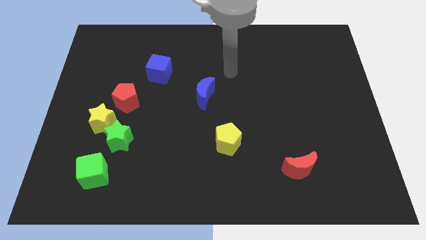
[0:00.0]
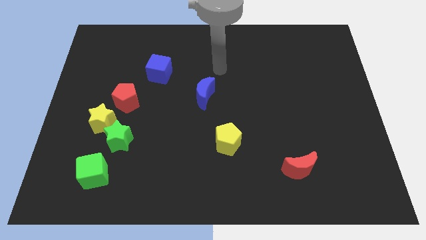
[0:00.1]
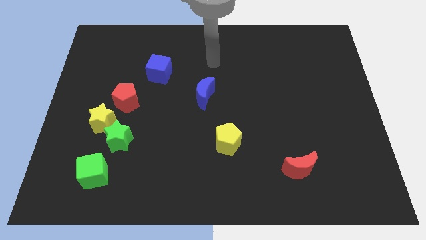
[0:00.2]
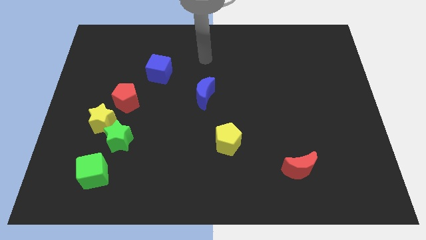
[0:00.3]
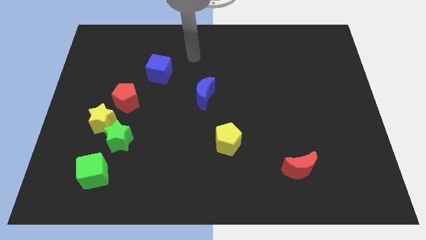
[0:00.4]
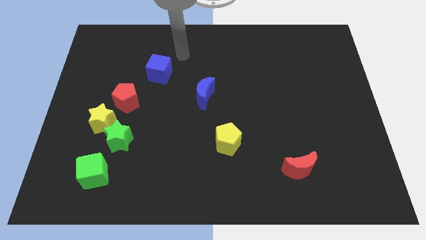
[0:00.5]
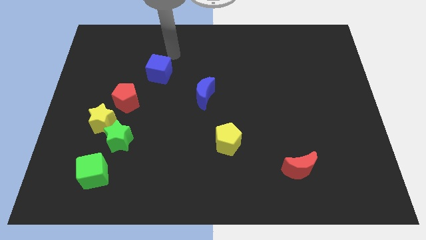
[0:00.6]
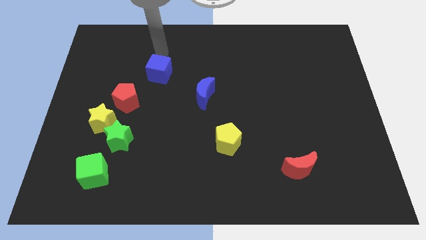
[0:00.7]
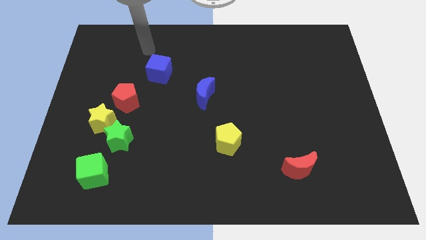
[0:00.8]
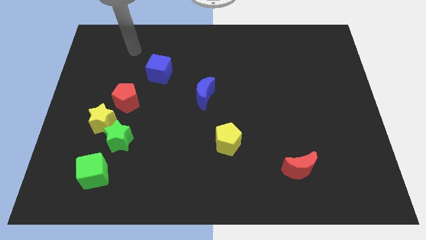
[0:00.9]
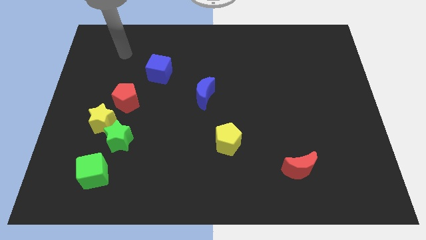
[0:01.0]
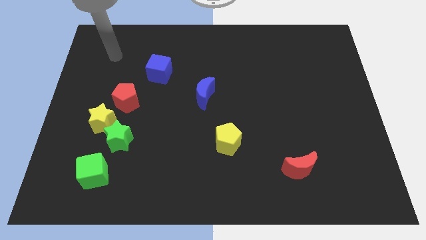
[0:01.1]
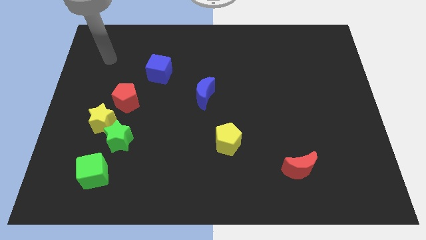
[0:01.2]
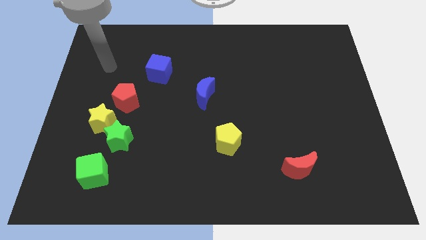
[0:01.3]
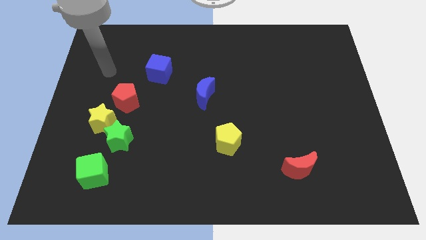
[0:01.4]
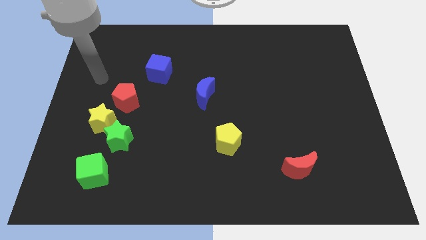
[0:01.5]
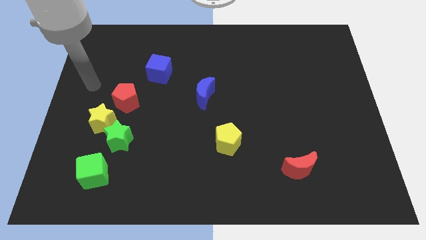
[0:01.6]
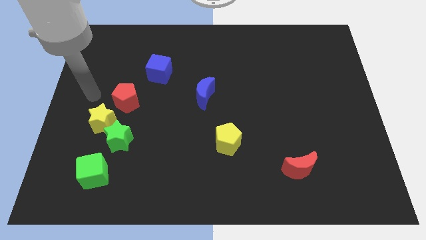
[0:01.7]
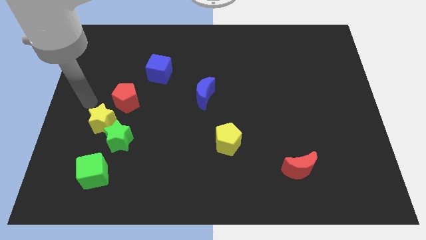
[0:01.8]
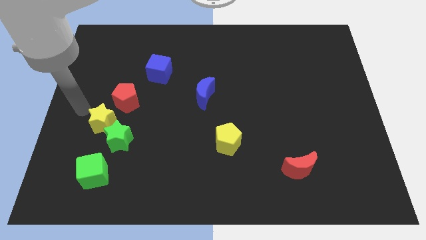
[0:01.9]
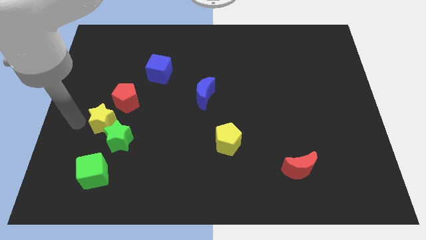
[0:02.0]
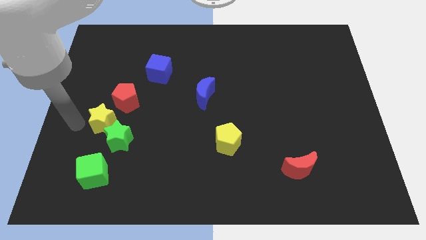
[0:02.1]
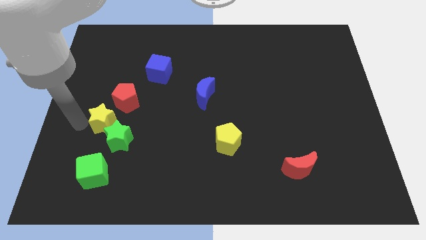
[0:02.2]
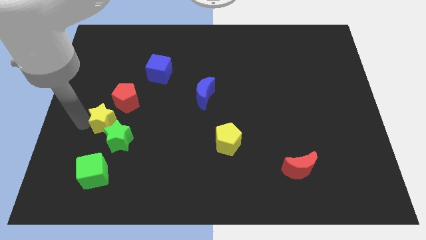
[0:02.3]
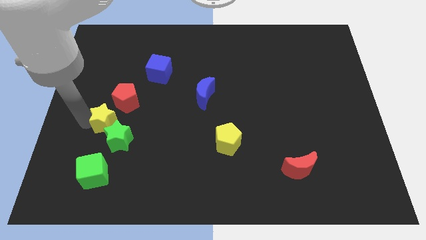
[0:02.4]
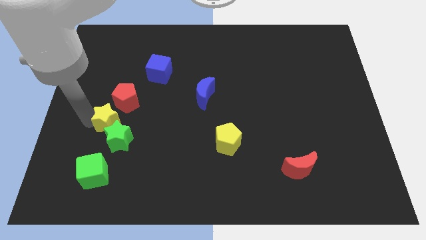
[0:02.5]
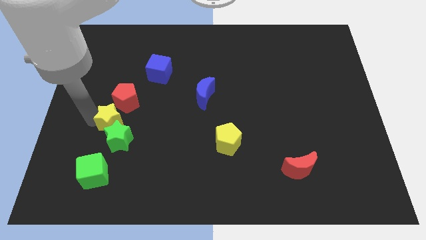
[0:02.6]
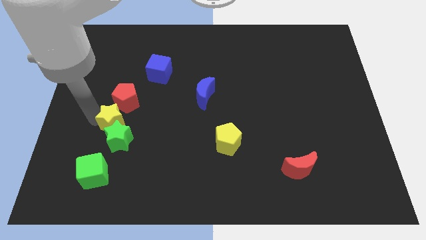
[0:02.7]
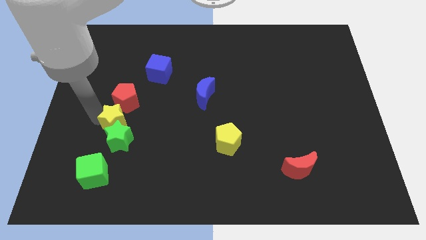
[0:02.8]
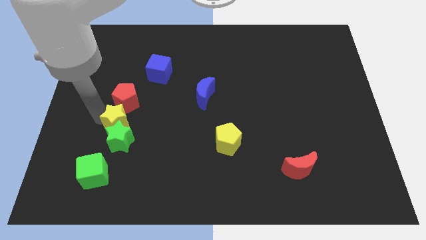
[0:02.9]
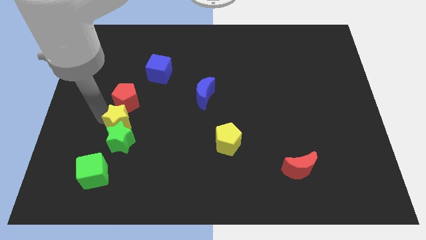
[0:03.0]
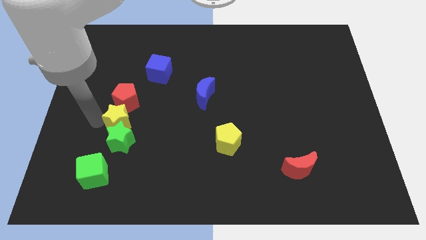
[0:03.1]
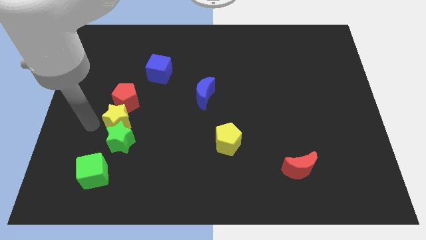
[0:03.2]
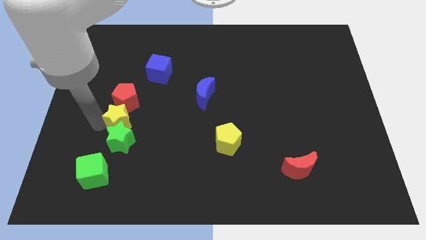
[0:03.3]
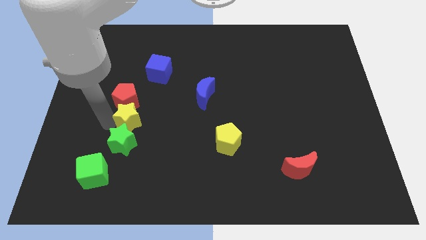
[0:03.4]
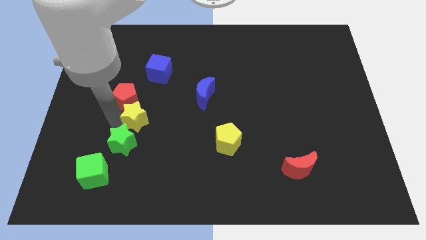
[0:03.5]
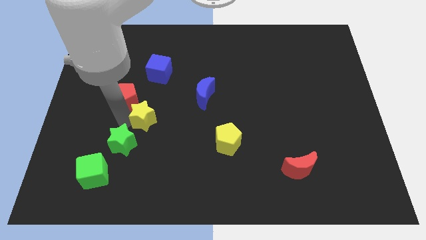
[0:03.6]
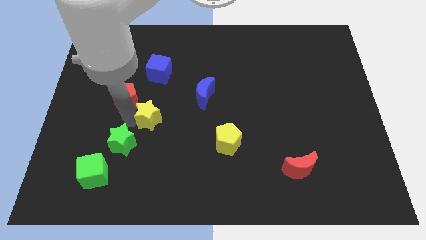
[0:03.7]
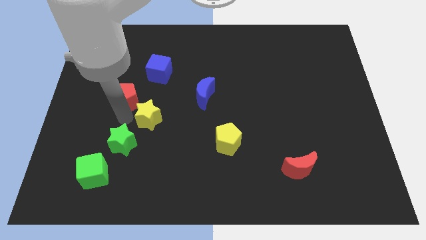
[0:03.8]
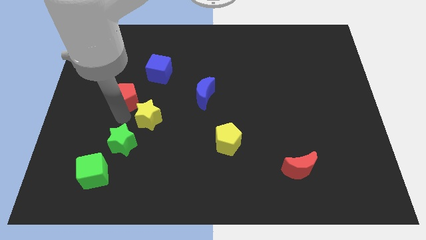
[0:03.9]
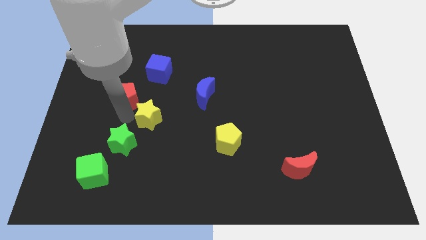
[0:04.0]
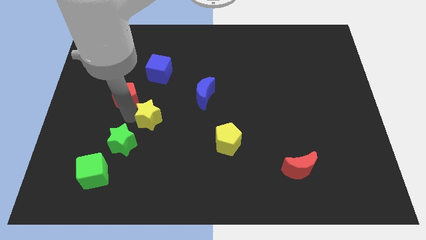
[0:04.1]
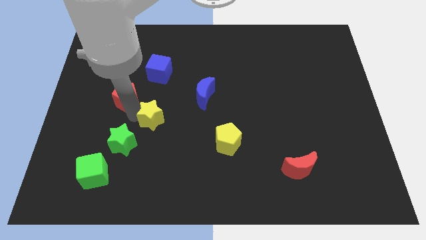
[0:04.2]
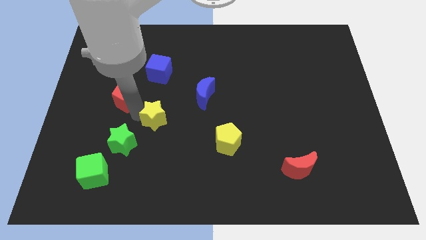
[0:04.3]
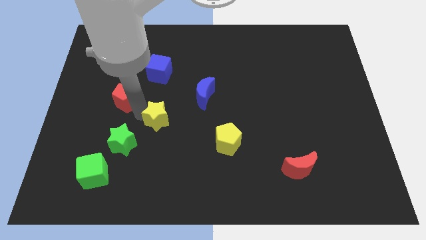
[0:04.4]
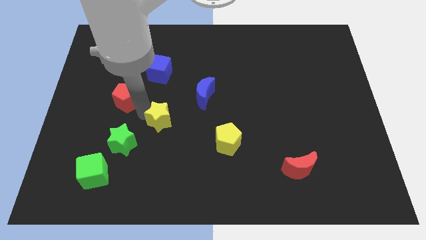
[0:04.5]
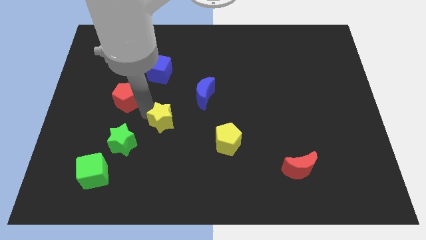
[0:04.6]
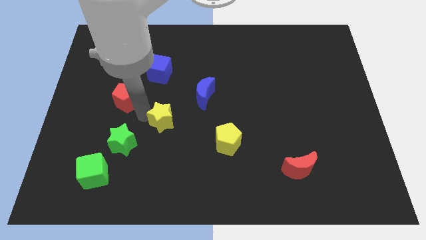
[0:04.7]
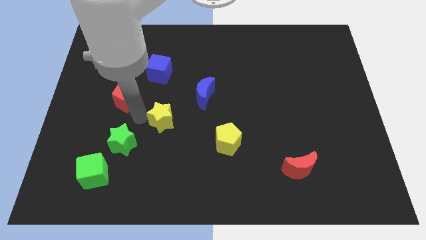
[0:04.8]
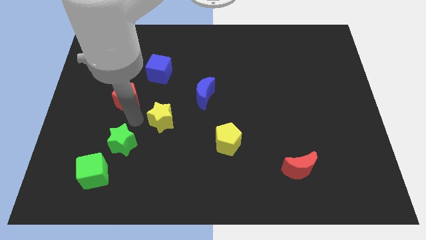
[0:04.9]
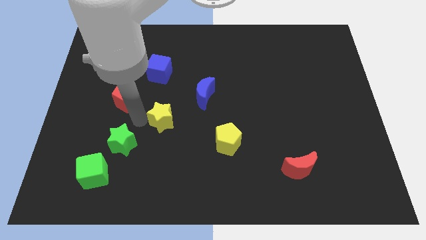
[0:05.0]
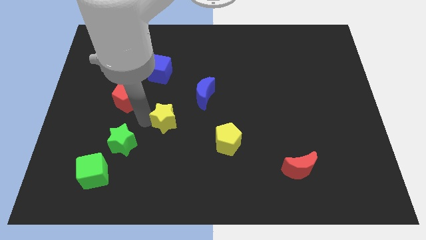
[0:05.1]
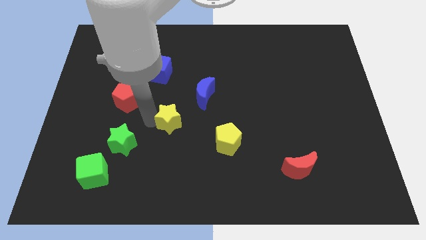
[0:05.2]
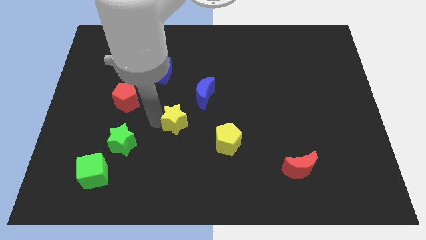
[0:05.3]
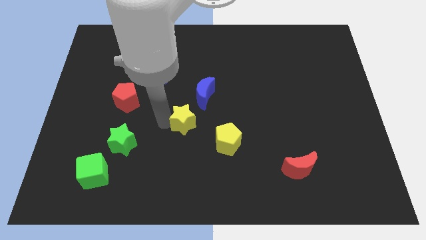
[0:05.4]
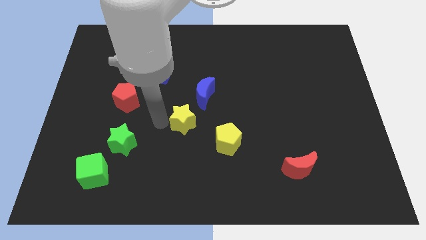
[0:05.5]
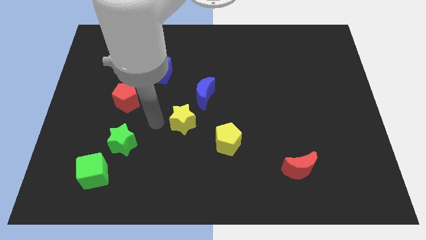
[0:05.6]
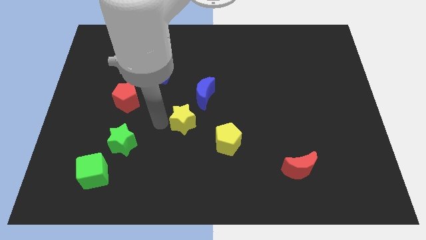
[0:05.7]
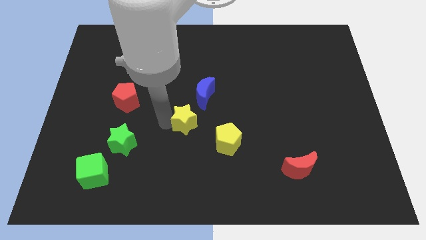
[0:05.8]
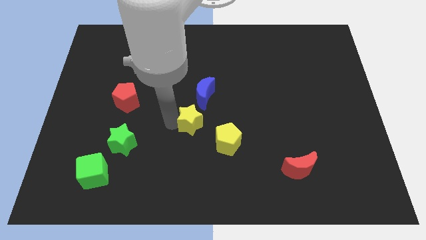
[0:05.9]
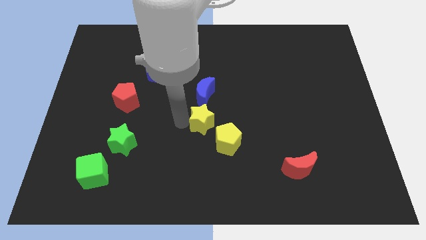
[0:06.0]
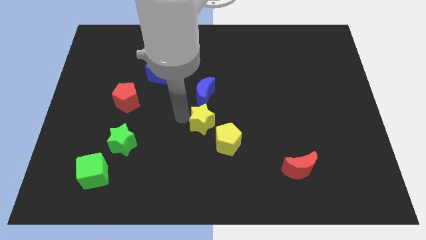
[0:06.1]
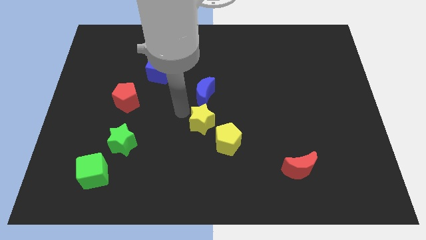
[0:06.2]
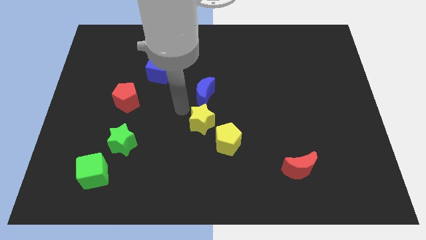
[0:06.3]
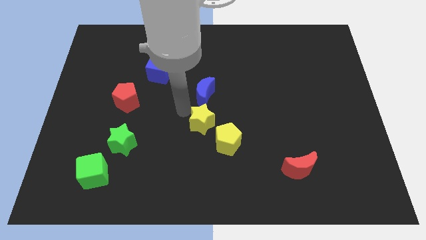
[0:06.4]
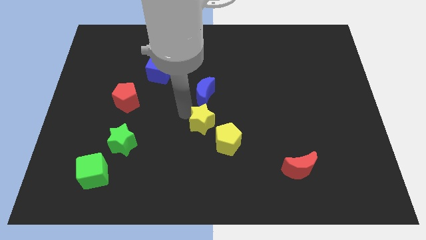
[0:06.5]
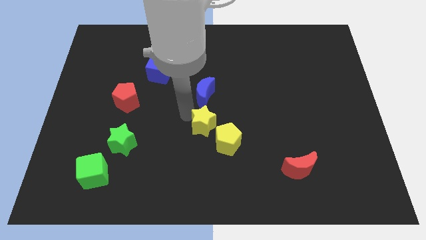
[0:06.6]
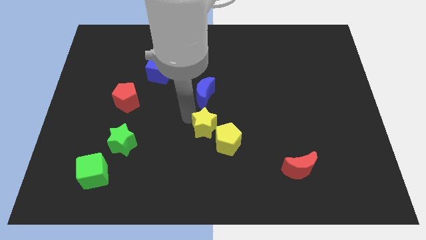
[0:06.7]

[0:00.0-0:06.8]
slide the yellow star close to the yellow pentagon

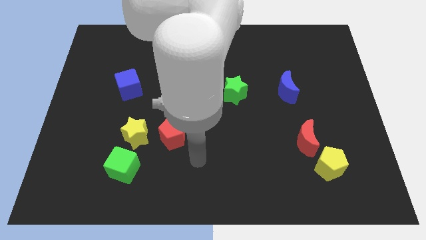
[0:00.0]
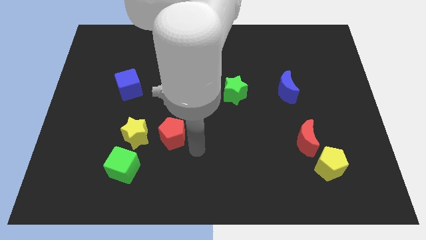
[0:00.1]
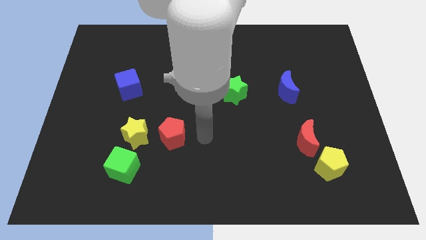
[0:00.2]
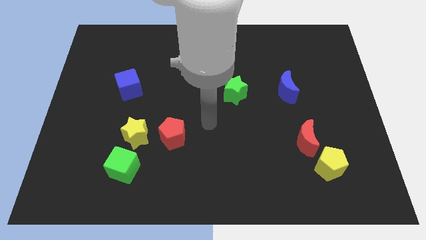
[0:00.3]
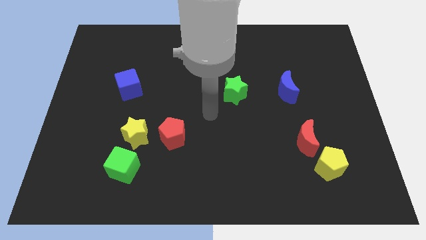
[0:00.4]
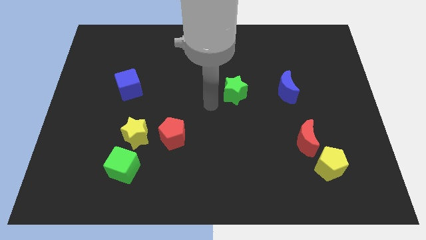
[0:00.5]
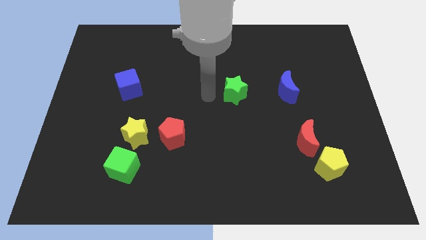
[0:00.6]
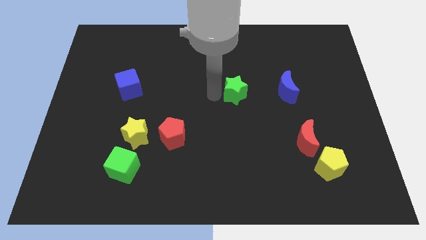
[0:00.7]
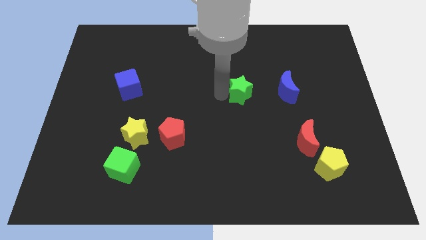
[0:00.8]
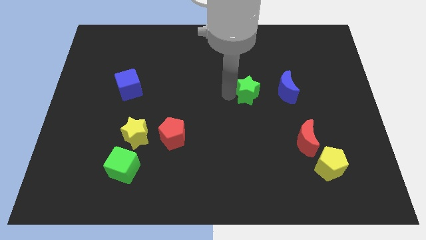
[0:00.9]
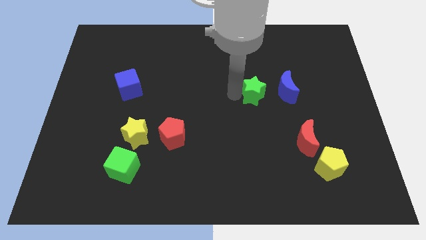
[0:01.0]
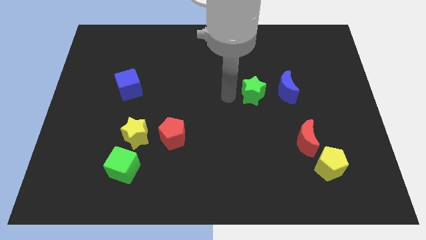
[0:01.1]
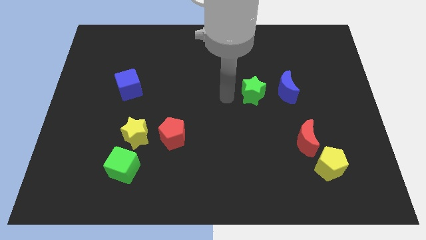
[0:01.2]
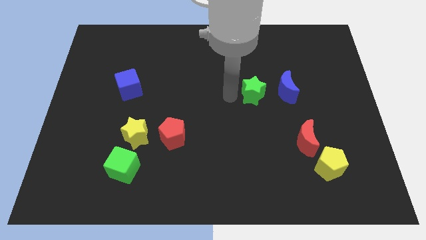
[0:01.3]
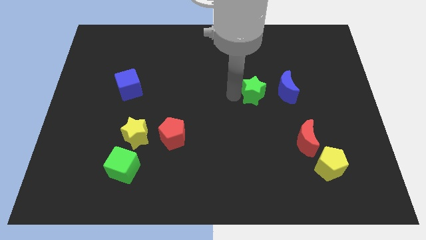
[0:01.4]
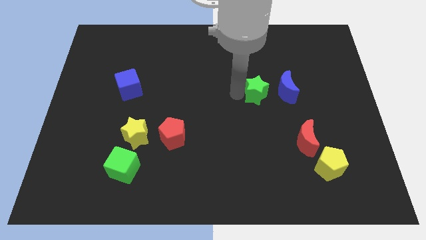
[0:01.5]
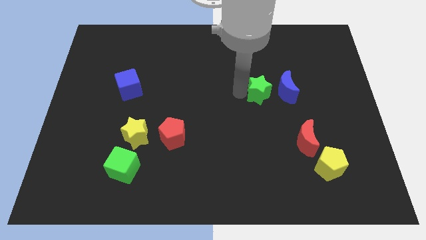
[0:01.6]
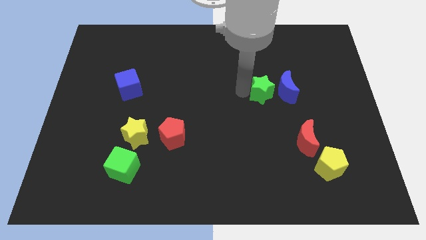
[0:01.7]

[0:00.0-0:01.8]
move the green star close to the blue moon
